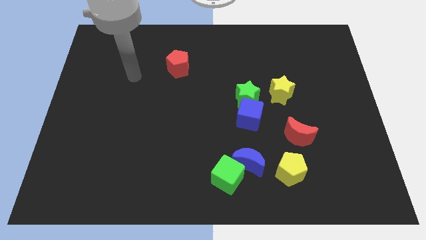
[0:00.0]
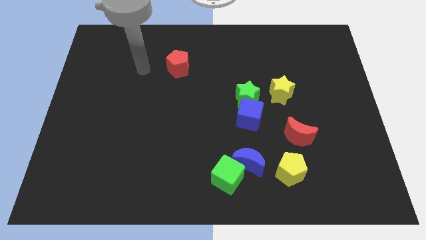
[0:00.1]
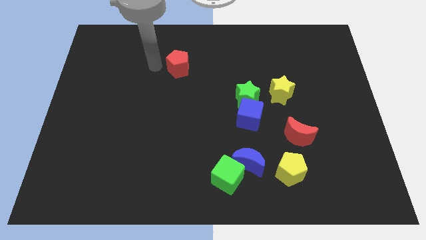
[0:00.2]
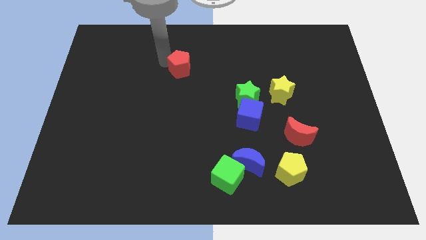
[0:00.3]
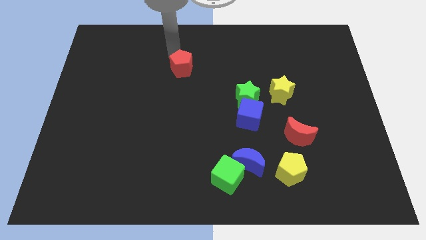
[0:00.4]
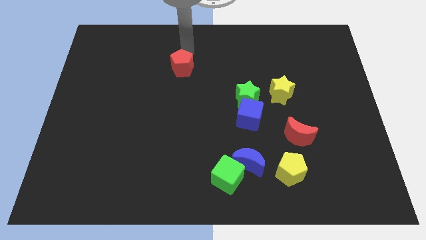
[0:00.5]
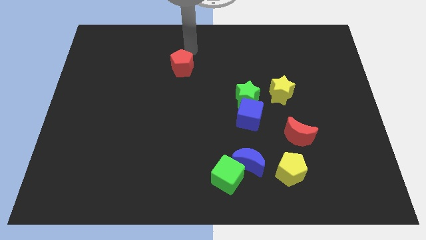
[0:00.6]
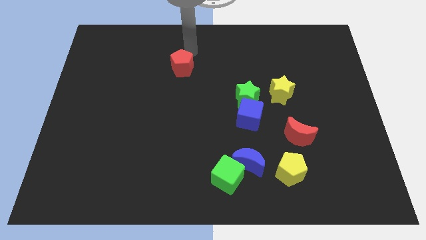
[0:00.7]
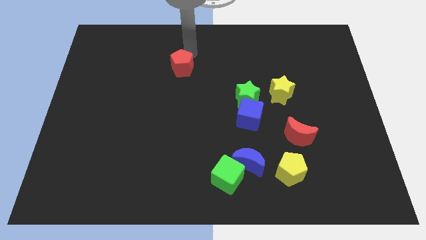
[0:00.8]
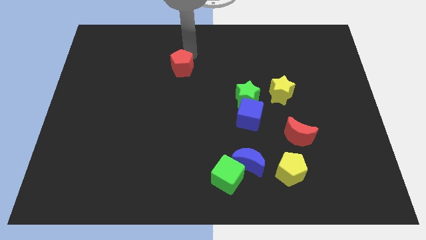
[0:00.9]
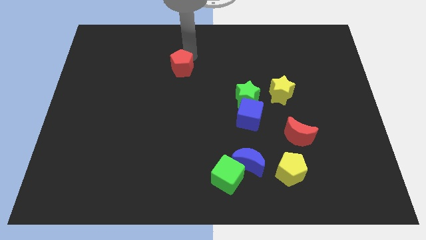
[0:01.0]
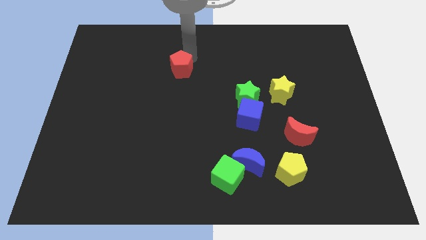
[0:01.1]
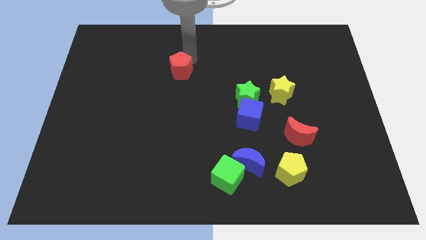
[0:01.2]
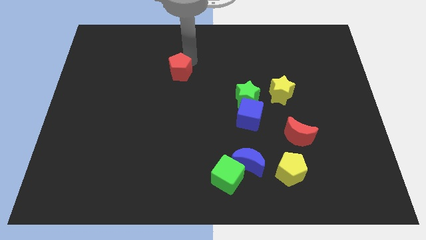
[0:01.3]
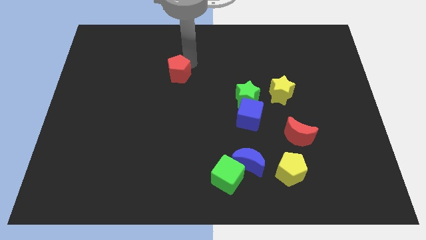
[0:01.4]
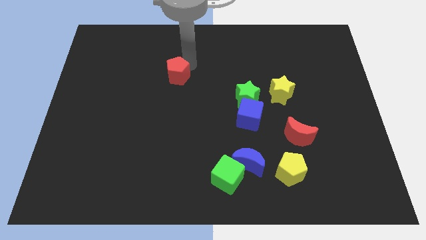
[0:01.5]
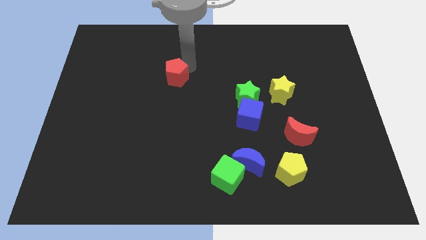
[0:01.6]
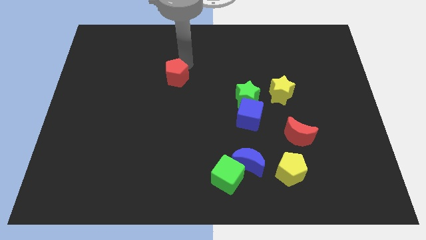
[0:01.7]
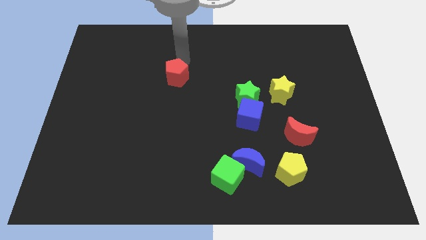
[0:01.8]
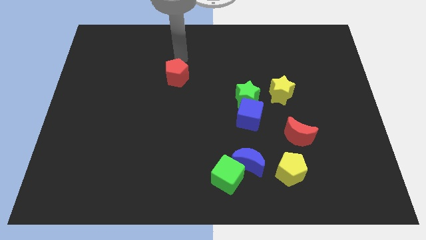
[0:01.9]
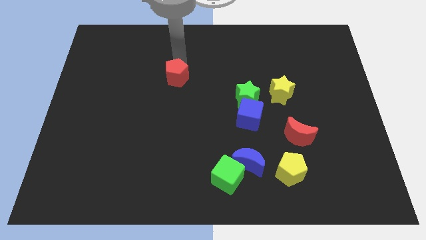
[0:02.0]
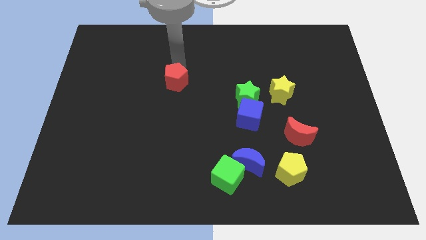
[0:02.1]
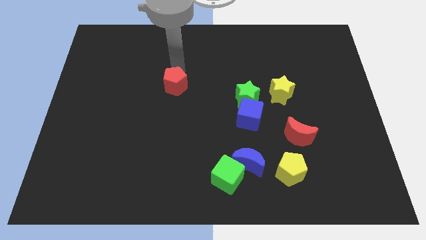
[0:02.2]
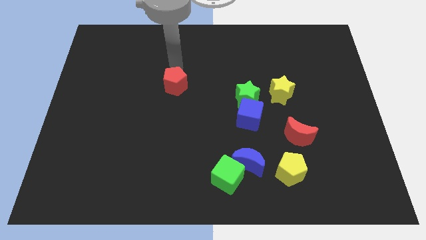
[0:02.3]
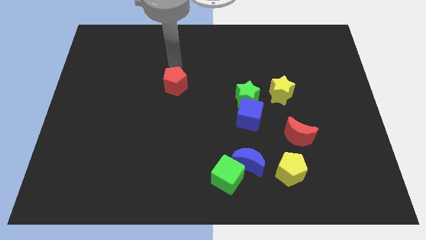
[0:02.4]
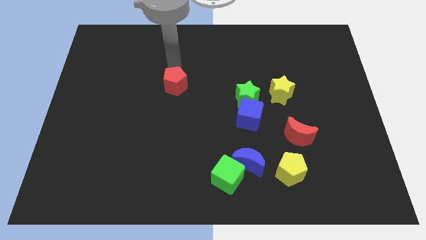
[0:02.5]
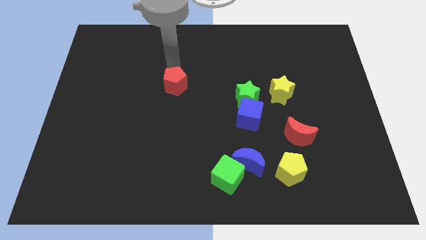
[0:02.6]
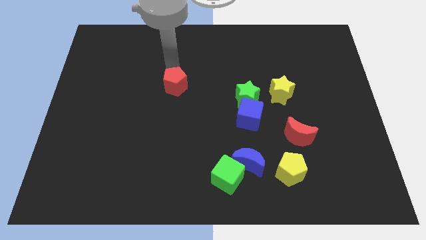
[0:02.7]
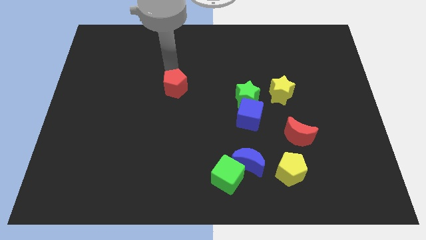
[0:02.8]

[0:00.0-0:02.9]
push the red pentagon a bit downwards

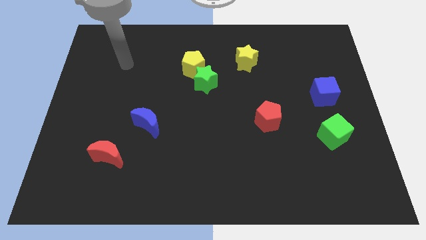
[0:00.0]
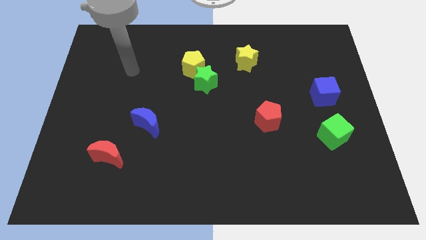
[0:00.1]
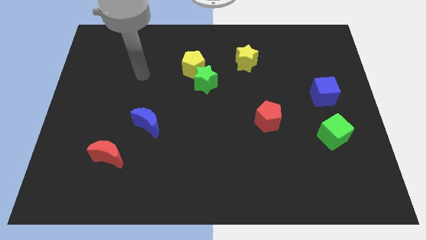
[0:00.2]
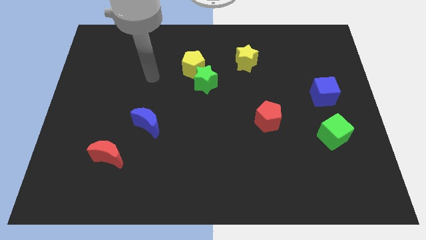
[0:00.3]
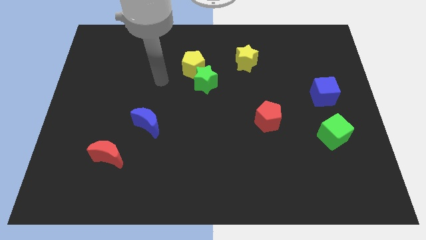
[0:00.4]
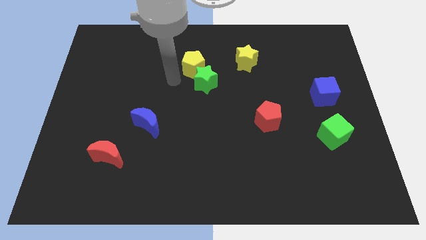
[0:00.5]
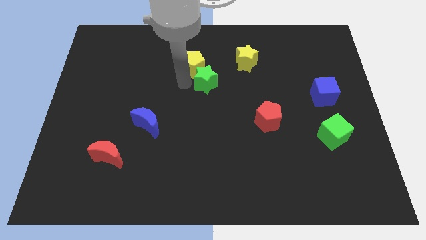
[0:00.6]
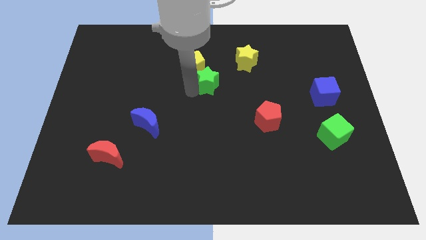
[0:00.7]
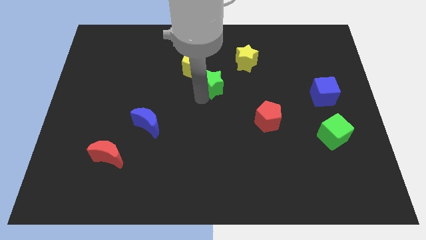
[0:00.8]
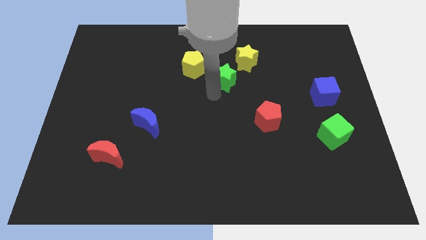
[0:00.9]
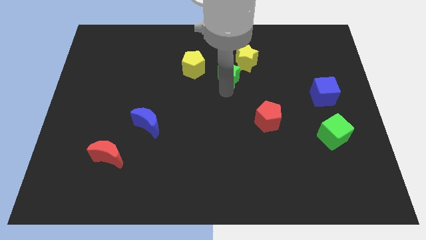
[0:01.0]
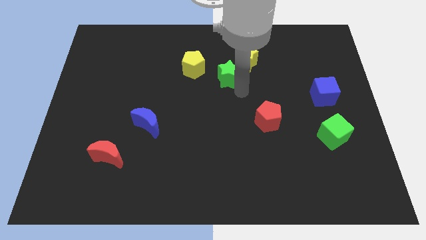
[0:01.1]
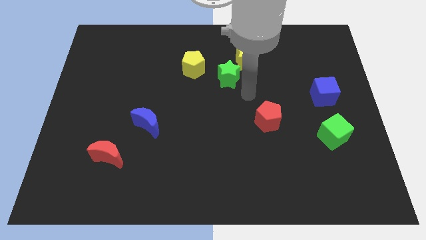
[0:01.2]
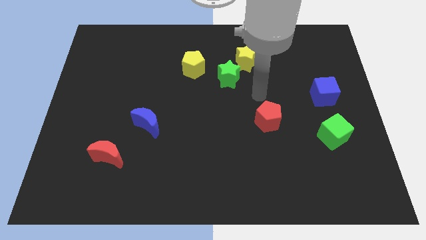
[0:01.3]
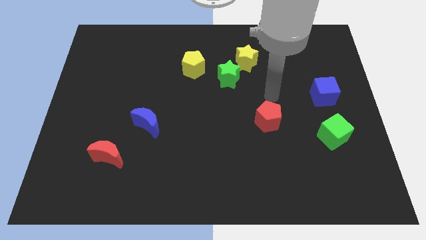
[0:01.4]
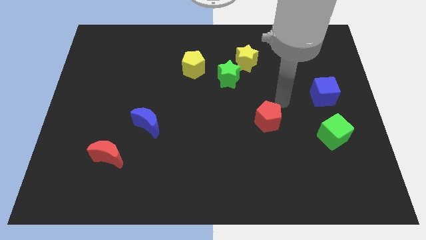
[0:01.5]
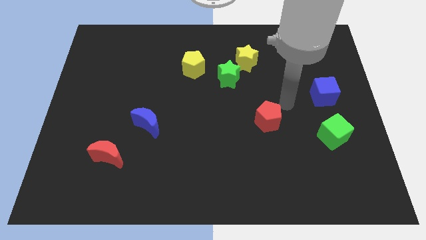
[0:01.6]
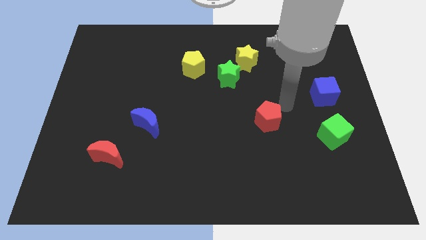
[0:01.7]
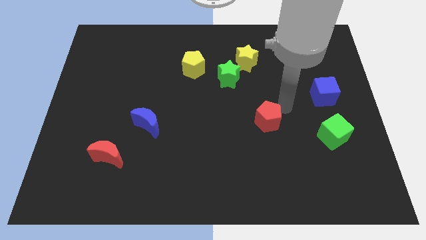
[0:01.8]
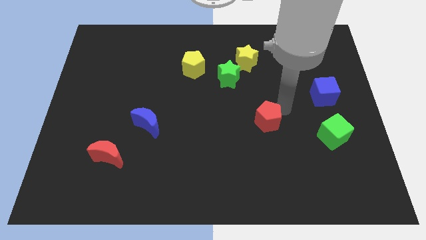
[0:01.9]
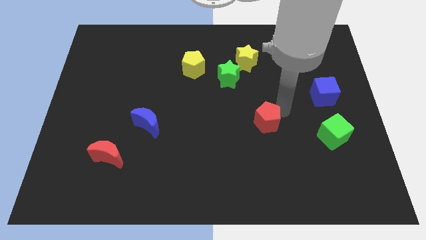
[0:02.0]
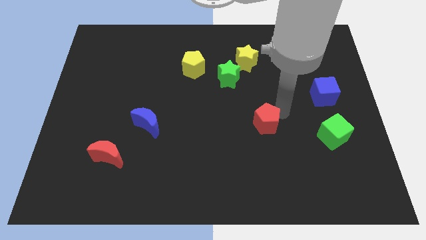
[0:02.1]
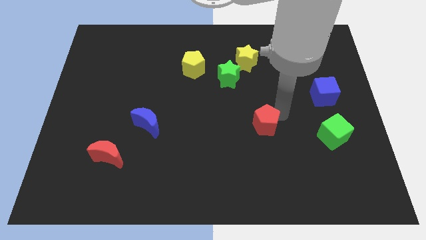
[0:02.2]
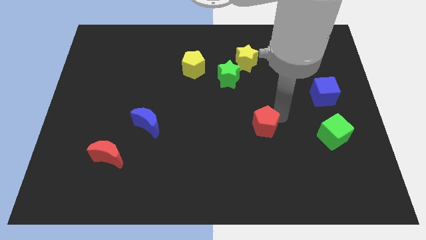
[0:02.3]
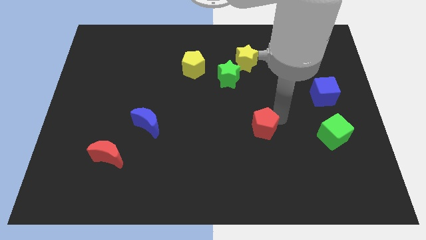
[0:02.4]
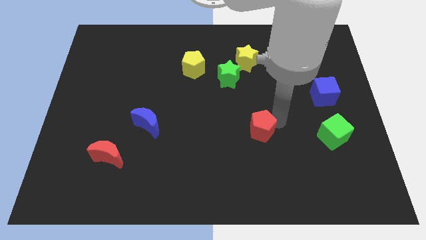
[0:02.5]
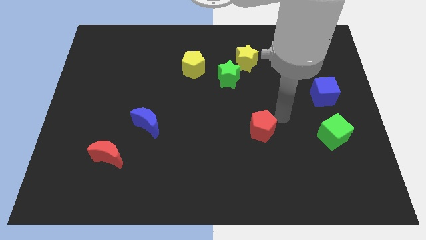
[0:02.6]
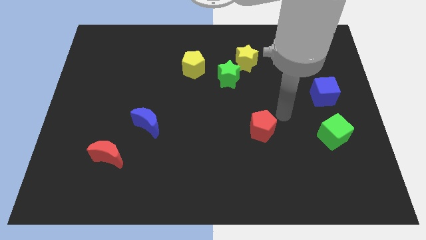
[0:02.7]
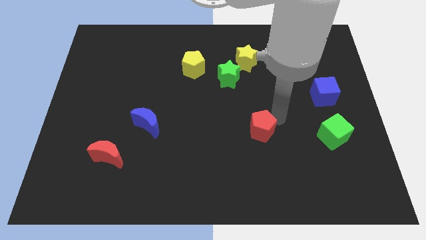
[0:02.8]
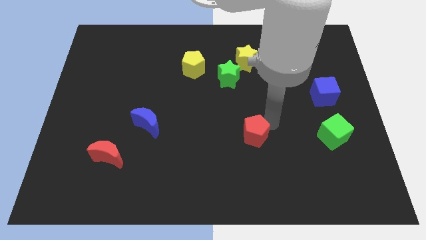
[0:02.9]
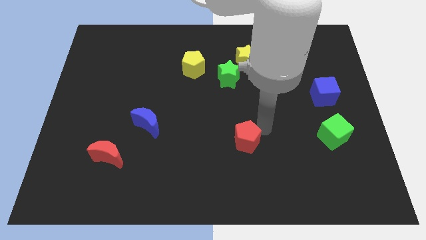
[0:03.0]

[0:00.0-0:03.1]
slightly slide the red pentagon diagonally downwards and to the left

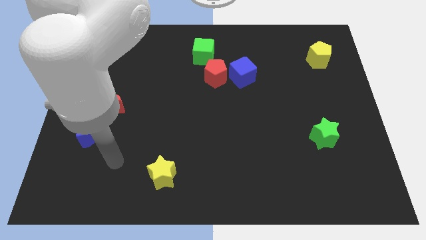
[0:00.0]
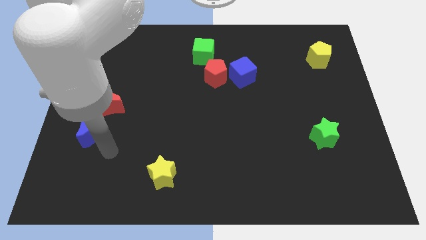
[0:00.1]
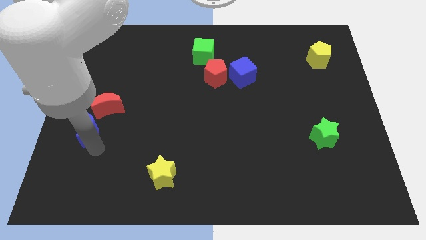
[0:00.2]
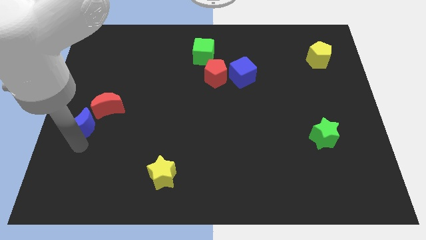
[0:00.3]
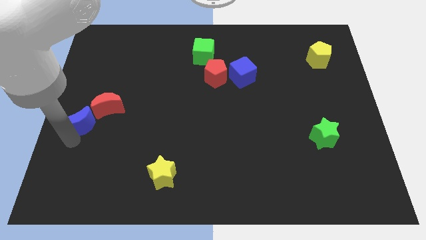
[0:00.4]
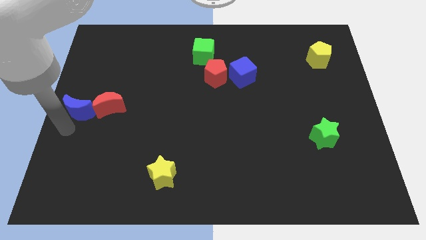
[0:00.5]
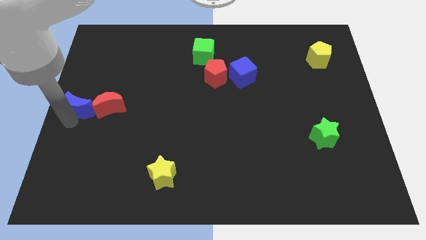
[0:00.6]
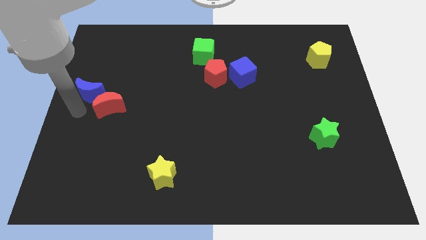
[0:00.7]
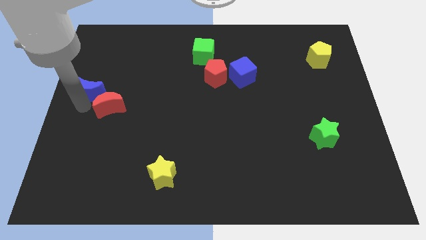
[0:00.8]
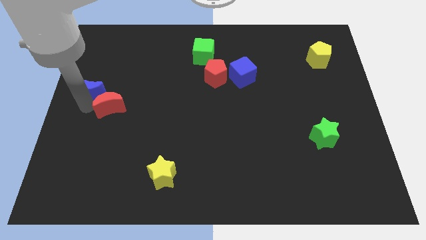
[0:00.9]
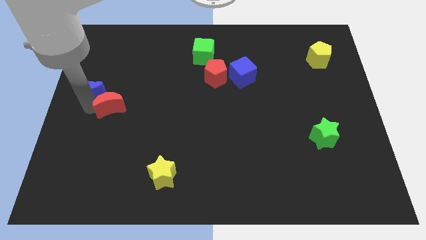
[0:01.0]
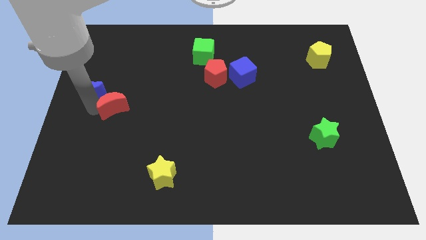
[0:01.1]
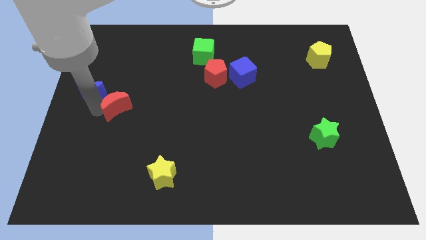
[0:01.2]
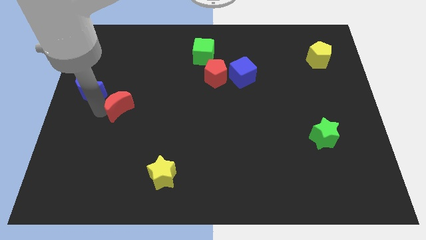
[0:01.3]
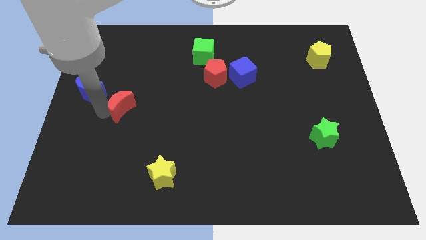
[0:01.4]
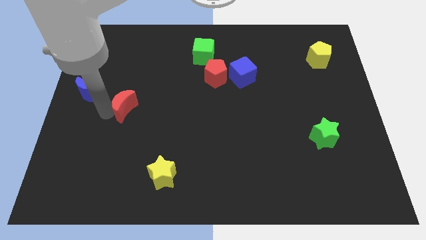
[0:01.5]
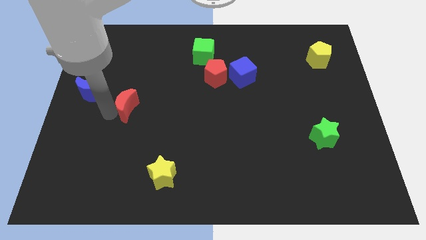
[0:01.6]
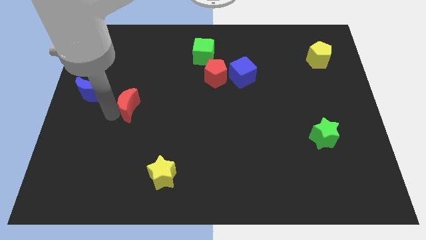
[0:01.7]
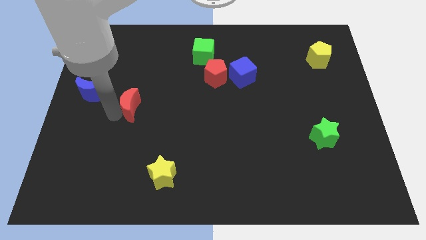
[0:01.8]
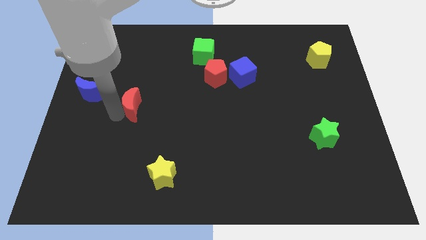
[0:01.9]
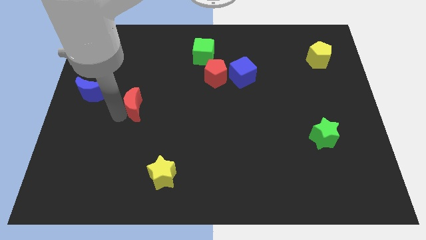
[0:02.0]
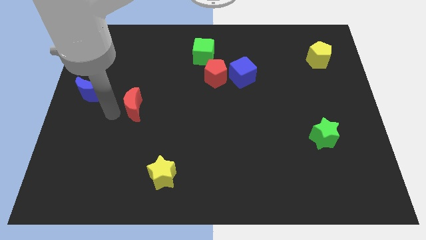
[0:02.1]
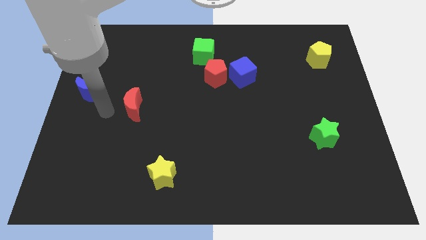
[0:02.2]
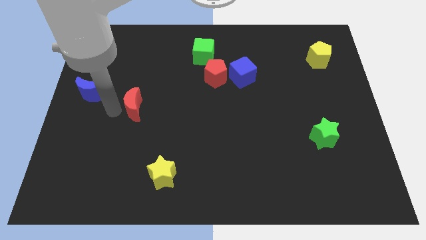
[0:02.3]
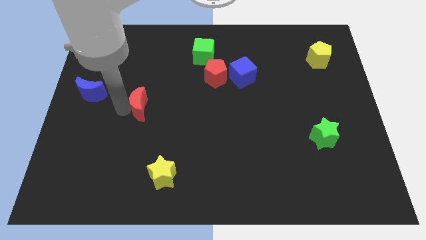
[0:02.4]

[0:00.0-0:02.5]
push the red moon right a little
